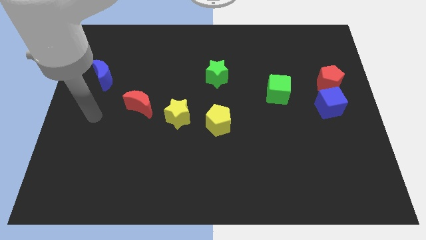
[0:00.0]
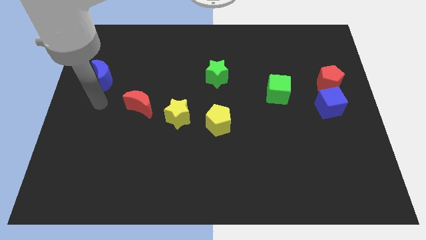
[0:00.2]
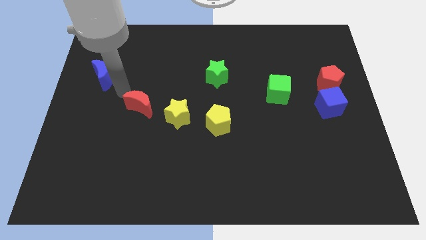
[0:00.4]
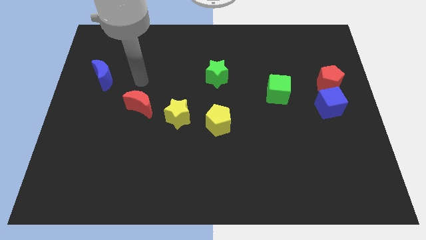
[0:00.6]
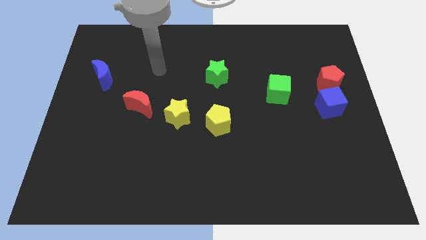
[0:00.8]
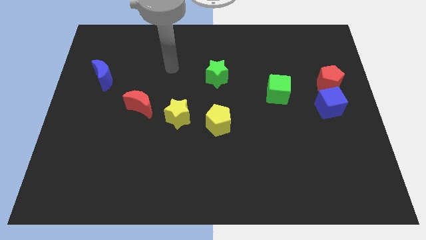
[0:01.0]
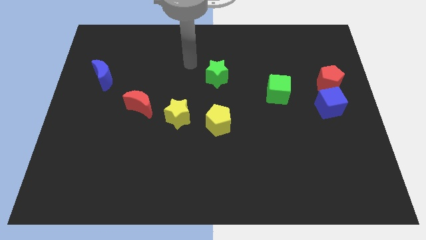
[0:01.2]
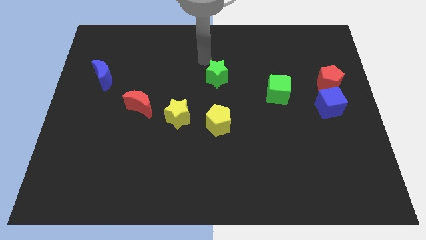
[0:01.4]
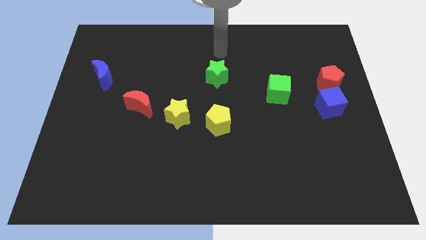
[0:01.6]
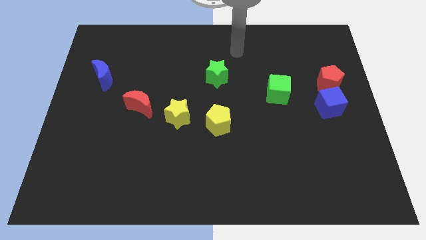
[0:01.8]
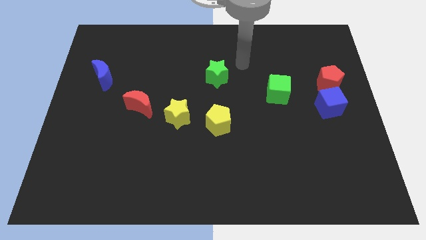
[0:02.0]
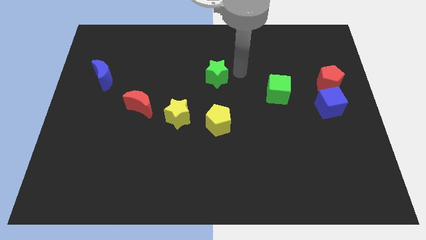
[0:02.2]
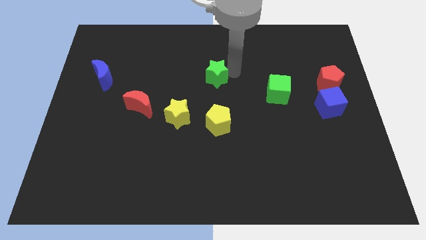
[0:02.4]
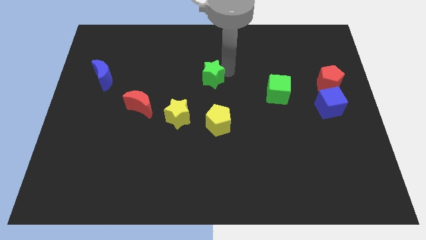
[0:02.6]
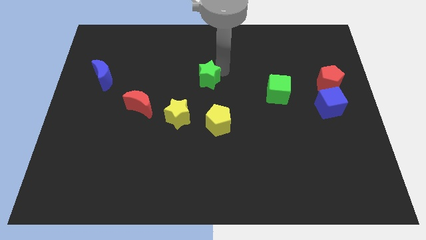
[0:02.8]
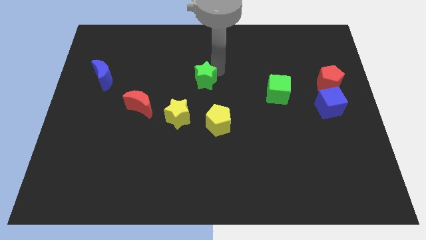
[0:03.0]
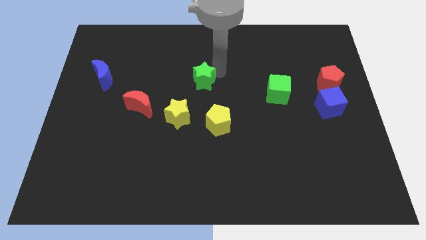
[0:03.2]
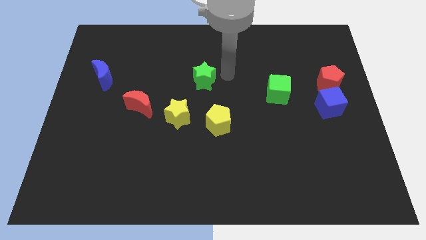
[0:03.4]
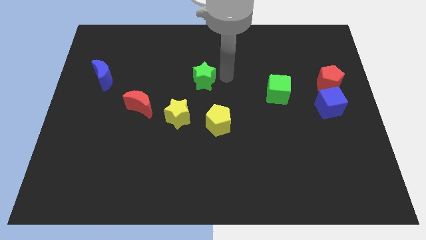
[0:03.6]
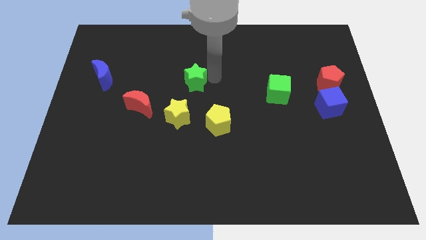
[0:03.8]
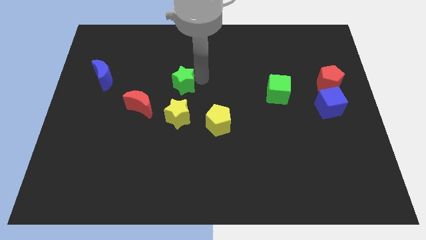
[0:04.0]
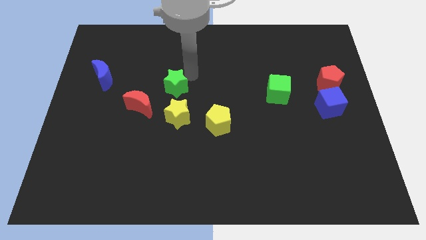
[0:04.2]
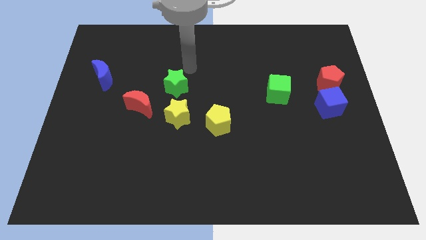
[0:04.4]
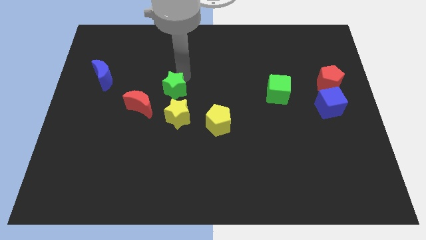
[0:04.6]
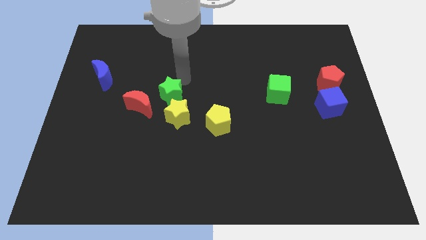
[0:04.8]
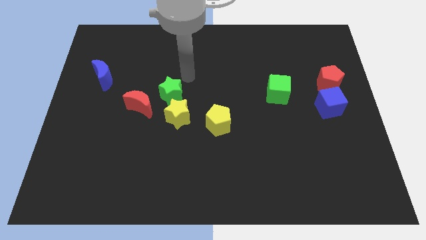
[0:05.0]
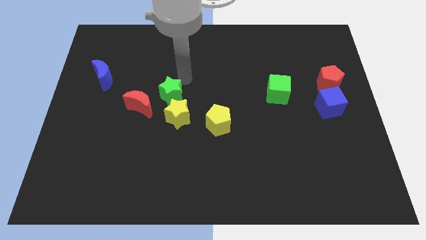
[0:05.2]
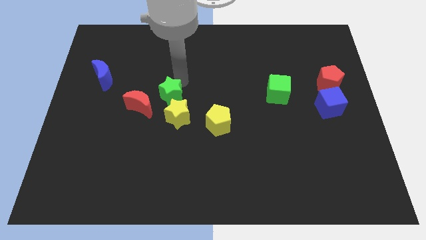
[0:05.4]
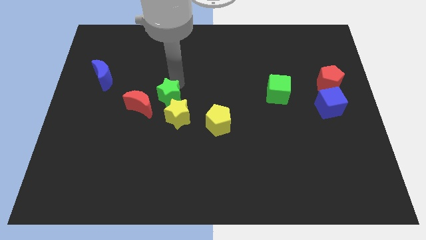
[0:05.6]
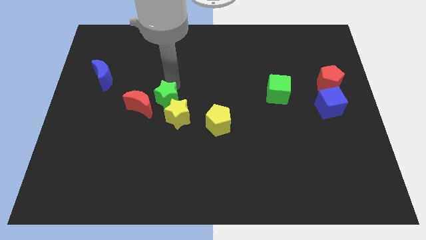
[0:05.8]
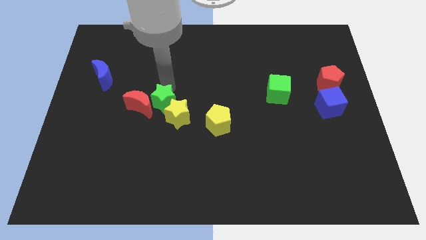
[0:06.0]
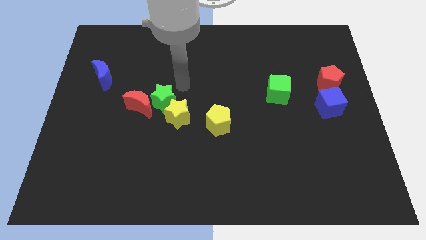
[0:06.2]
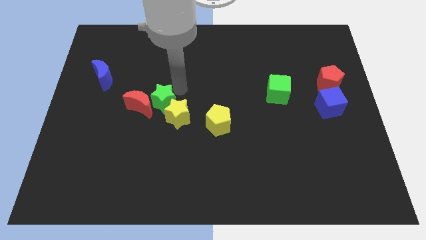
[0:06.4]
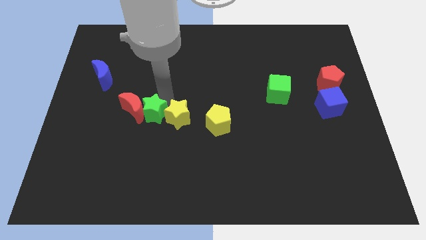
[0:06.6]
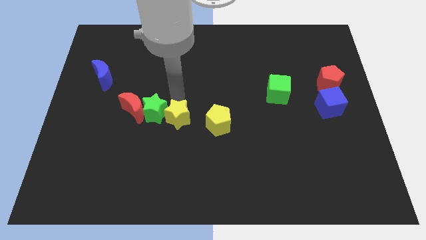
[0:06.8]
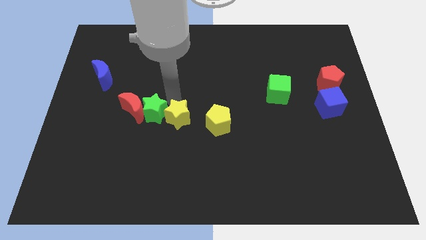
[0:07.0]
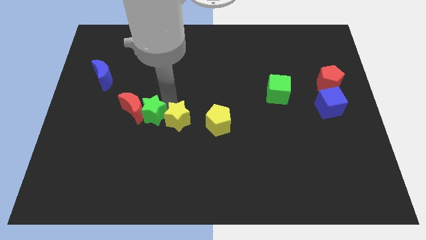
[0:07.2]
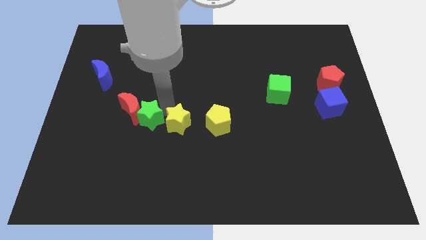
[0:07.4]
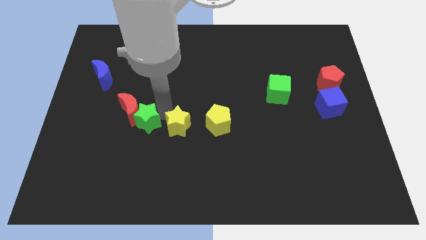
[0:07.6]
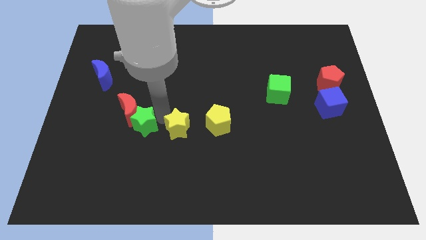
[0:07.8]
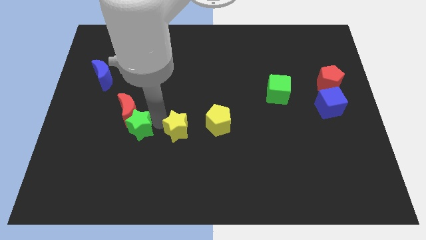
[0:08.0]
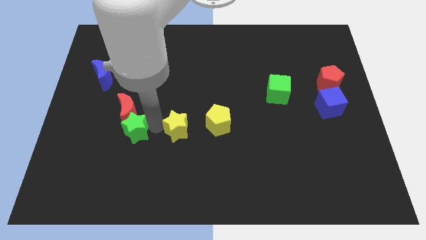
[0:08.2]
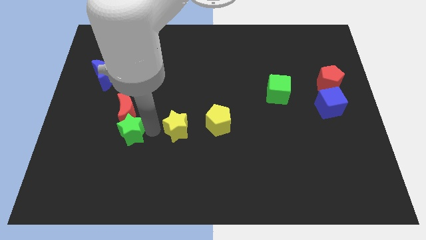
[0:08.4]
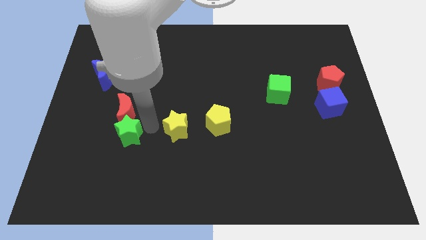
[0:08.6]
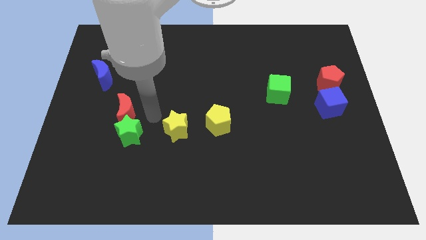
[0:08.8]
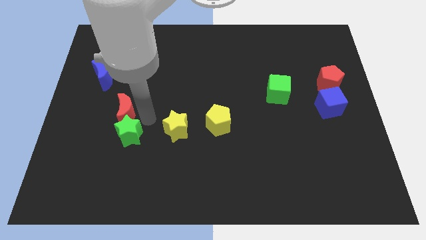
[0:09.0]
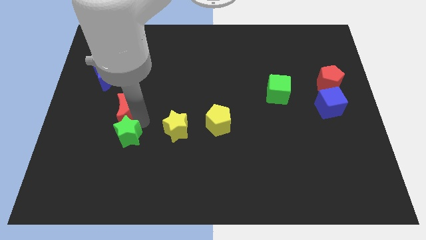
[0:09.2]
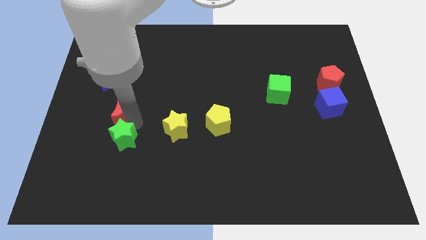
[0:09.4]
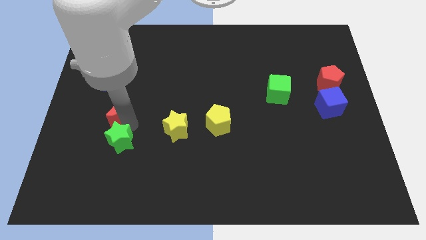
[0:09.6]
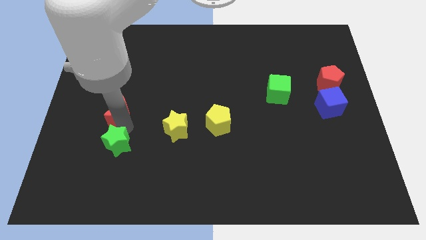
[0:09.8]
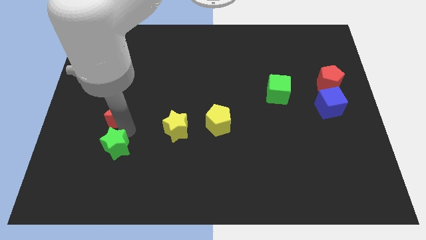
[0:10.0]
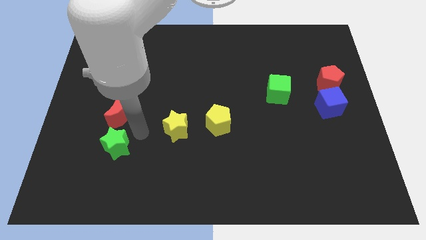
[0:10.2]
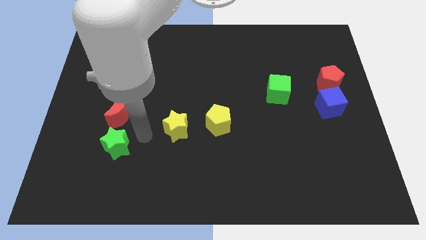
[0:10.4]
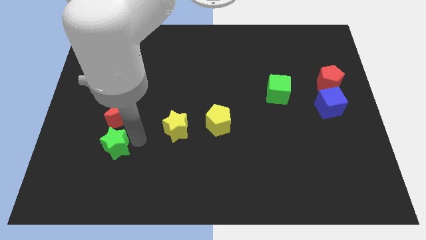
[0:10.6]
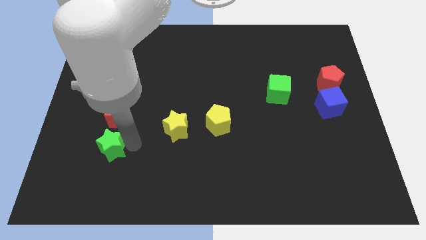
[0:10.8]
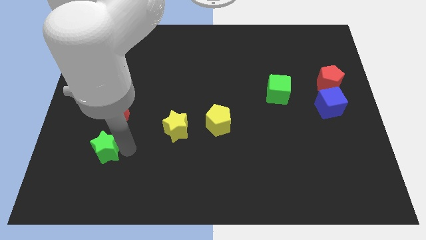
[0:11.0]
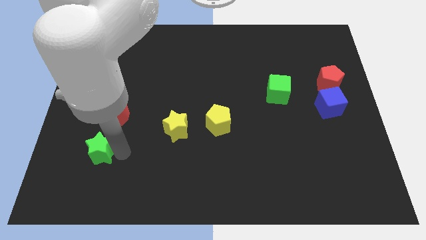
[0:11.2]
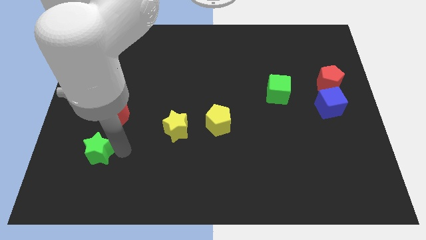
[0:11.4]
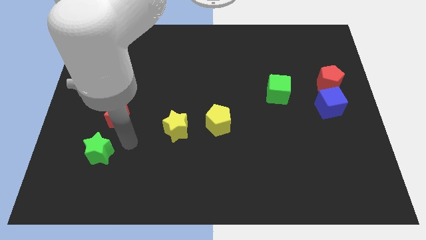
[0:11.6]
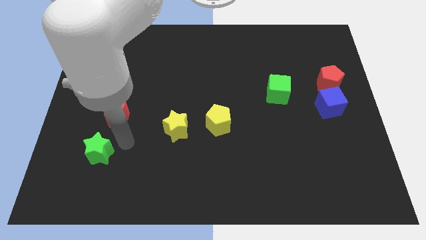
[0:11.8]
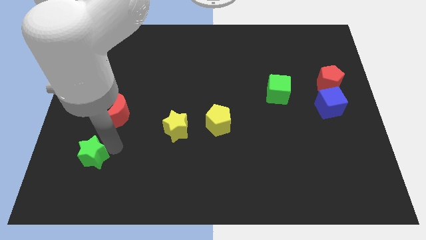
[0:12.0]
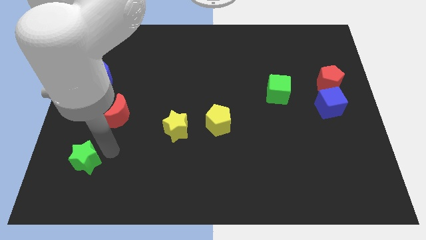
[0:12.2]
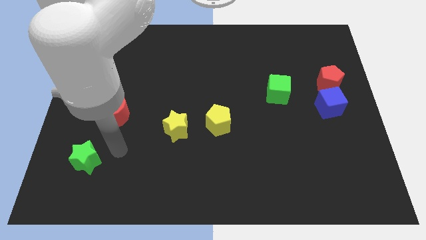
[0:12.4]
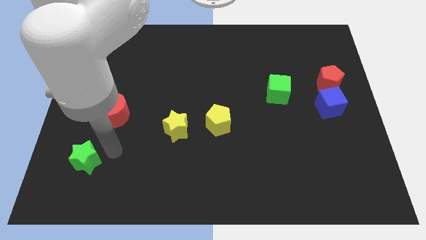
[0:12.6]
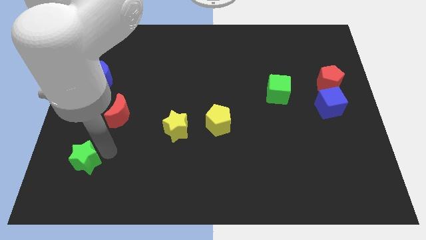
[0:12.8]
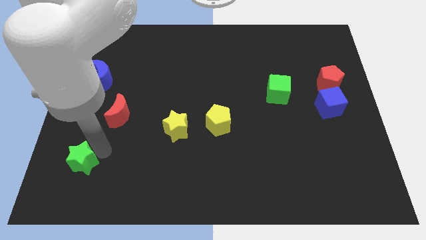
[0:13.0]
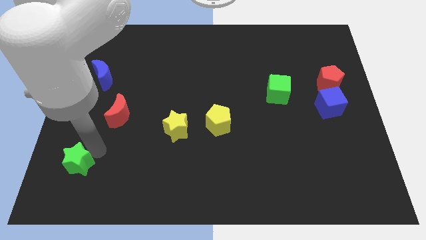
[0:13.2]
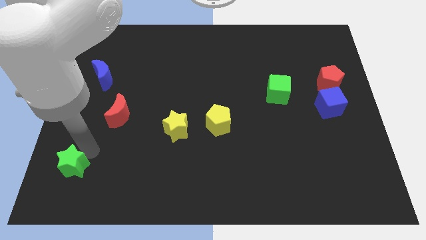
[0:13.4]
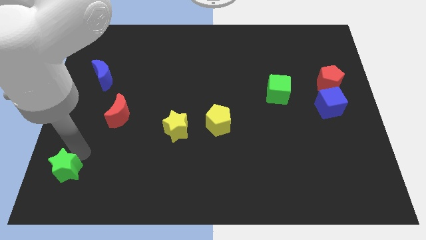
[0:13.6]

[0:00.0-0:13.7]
slide the green star to the lower left corner

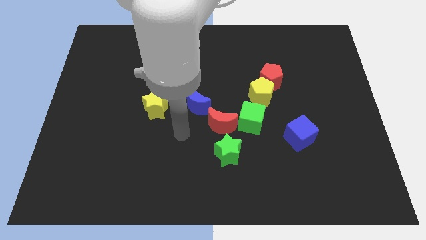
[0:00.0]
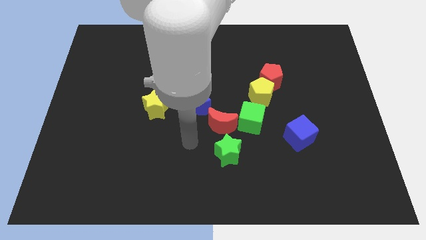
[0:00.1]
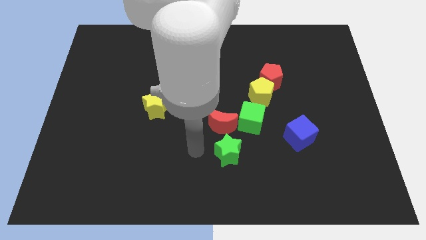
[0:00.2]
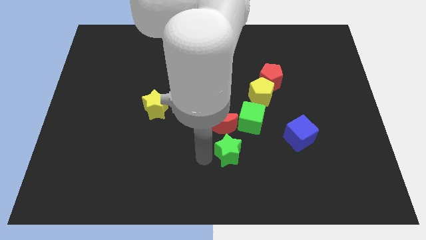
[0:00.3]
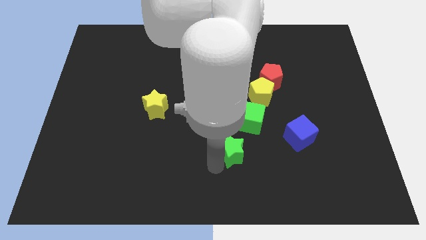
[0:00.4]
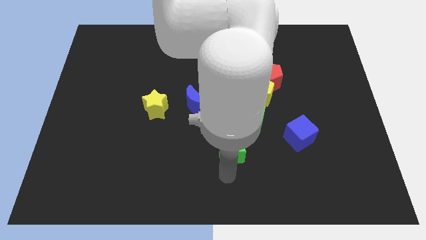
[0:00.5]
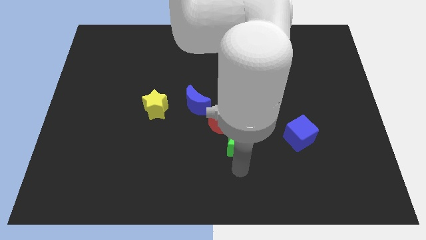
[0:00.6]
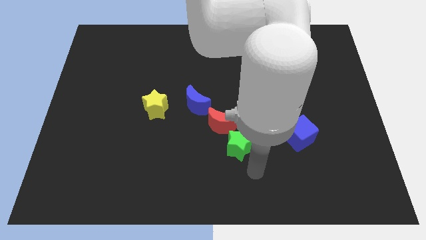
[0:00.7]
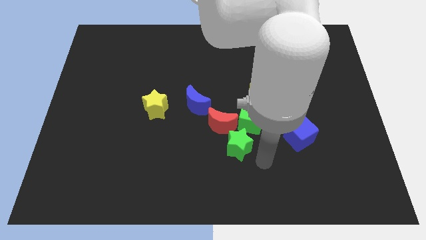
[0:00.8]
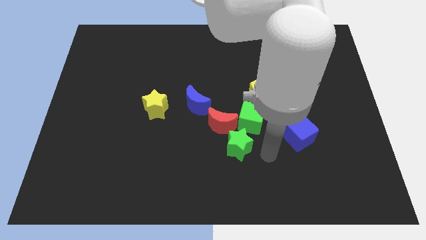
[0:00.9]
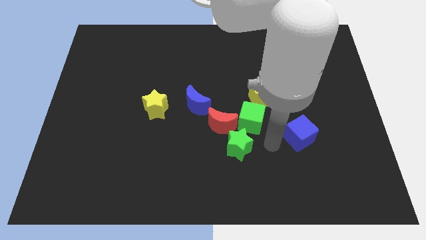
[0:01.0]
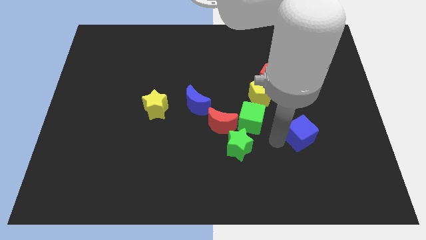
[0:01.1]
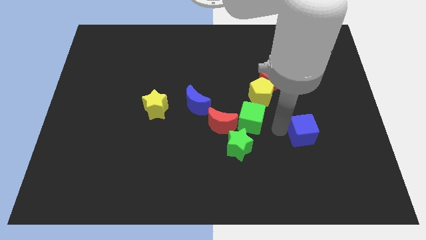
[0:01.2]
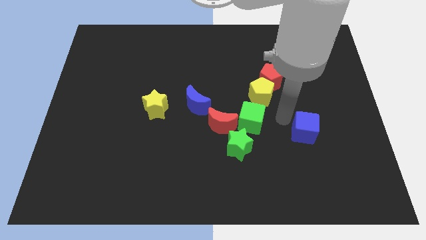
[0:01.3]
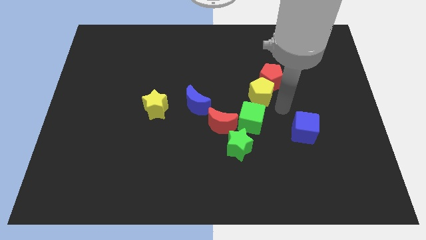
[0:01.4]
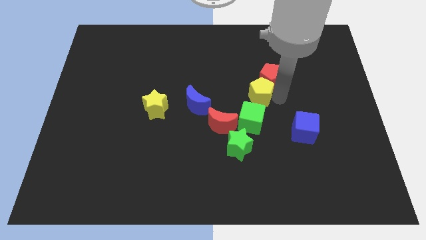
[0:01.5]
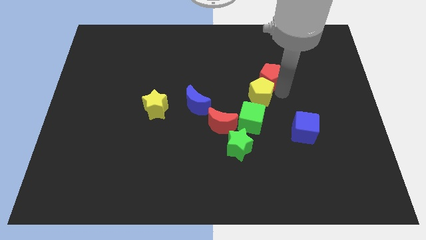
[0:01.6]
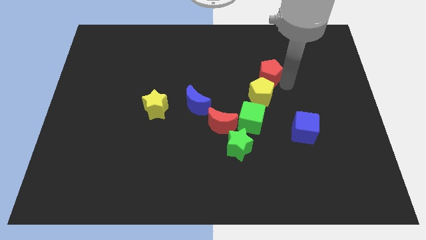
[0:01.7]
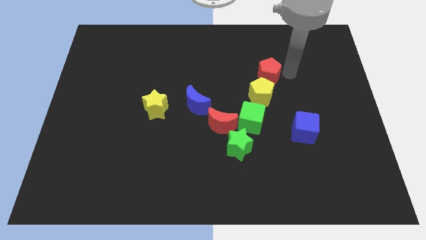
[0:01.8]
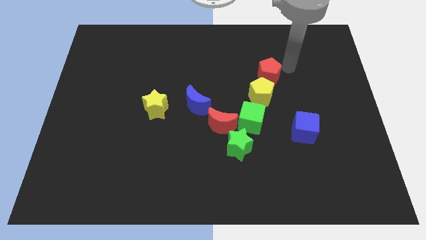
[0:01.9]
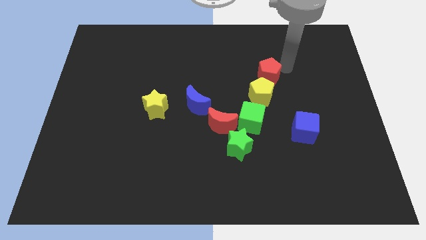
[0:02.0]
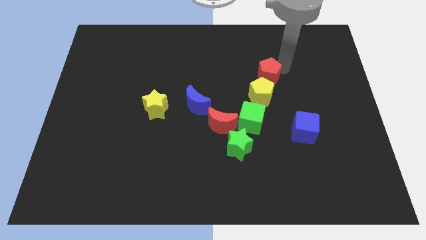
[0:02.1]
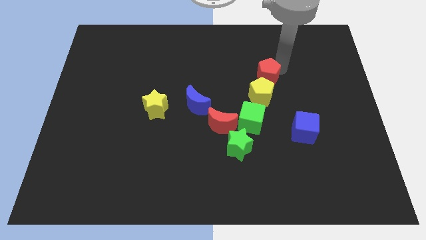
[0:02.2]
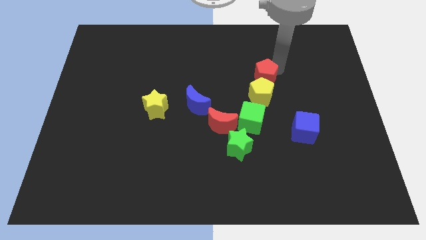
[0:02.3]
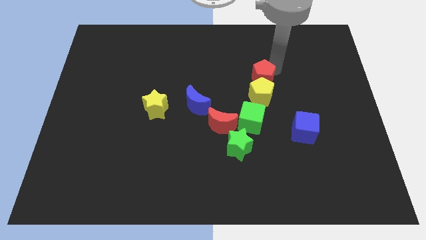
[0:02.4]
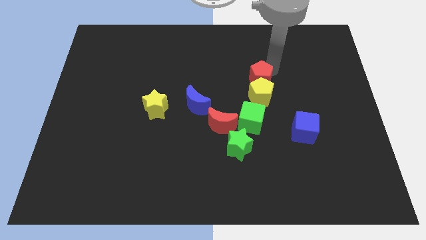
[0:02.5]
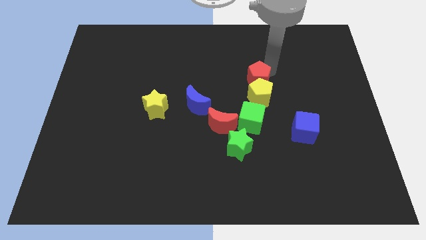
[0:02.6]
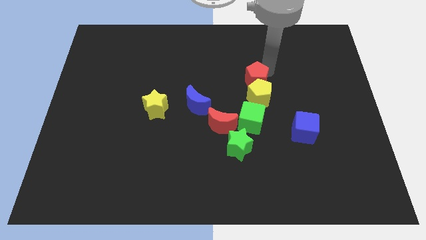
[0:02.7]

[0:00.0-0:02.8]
slide the red pentagon to the center
